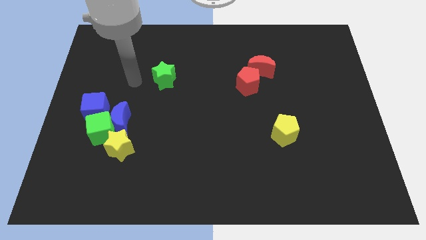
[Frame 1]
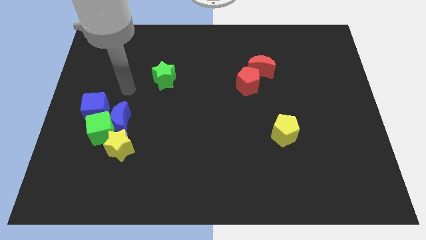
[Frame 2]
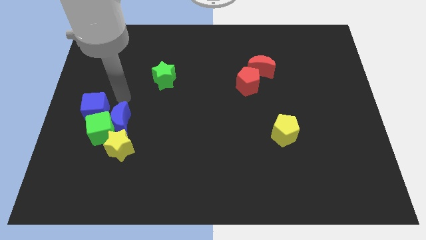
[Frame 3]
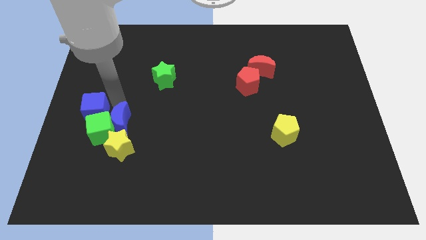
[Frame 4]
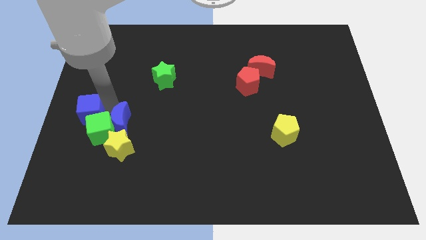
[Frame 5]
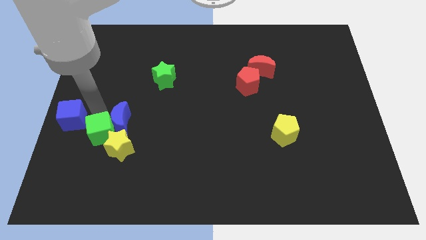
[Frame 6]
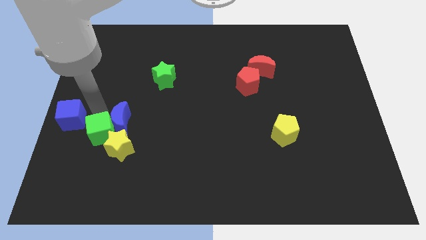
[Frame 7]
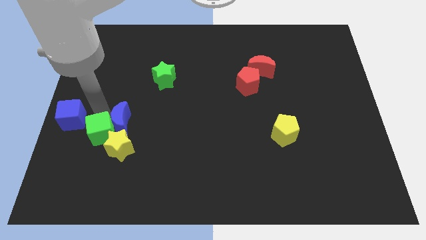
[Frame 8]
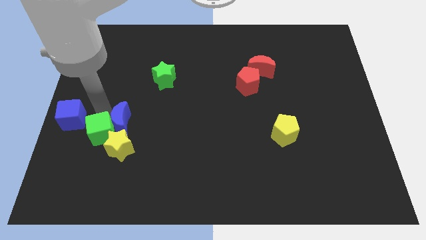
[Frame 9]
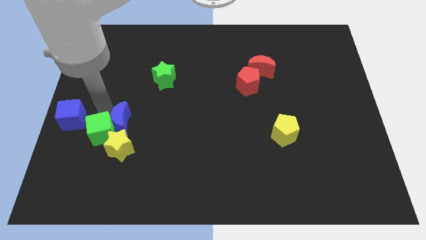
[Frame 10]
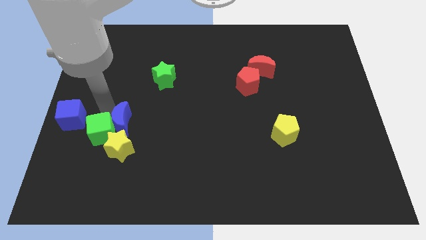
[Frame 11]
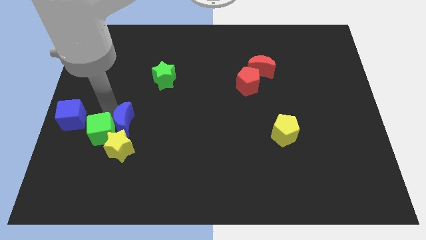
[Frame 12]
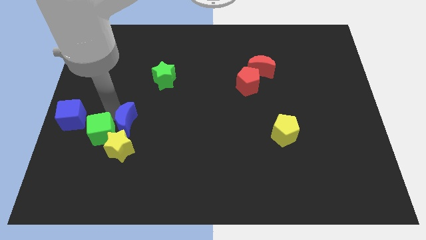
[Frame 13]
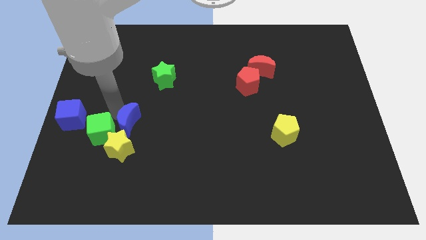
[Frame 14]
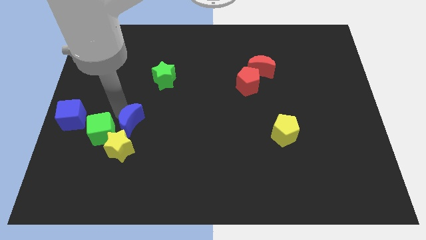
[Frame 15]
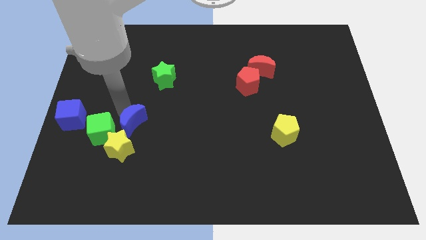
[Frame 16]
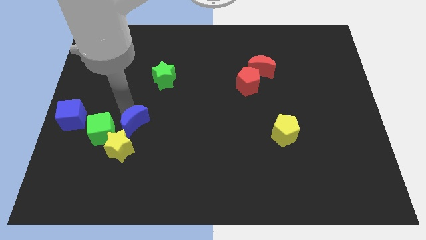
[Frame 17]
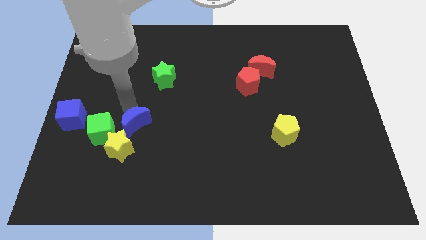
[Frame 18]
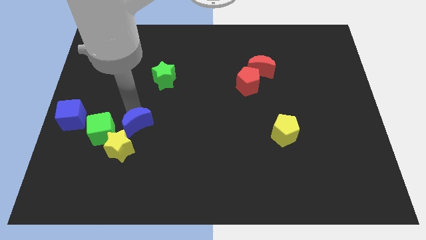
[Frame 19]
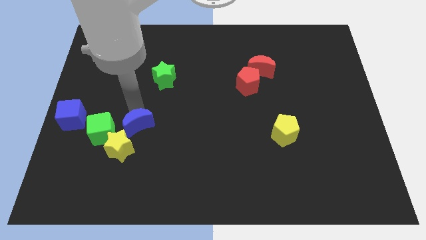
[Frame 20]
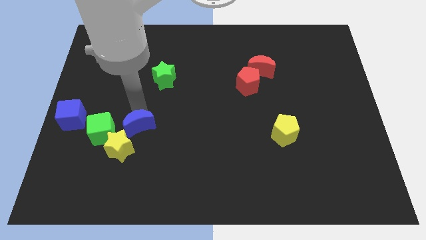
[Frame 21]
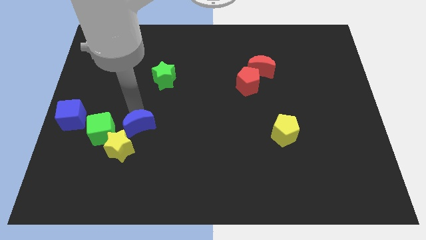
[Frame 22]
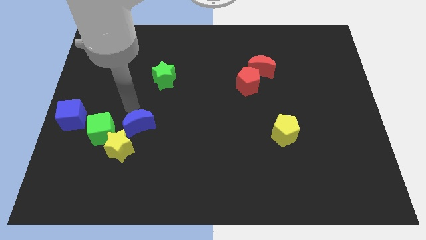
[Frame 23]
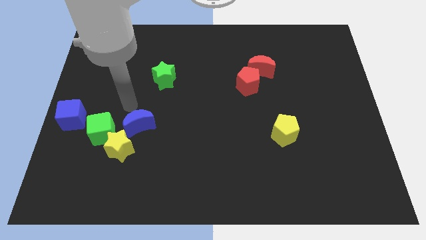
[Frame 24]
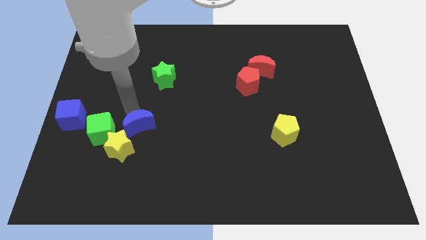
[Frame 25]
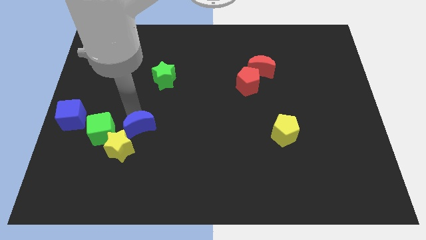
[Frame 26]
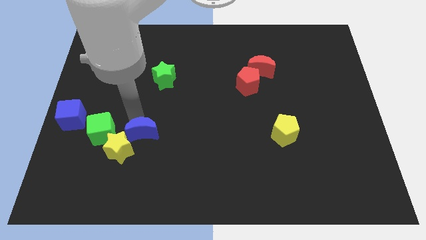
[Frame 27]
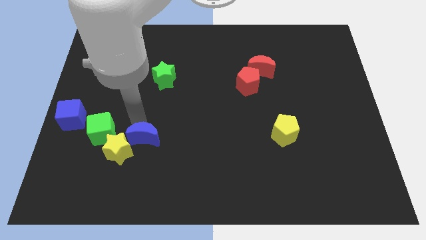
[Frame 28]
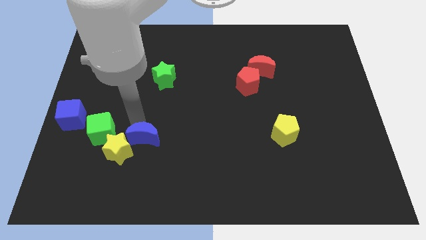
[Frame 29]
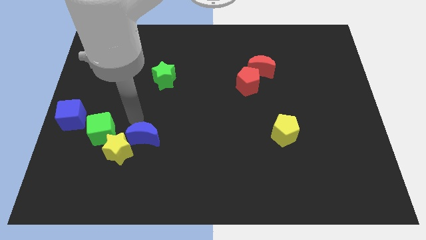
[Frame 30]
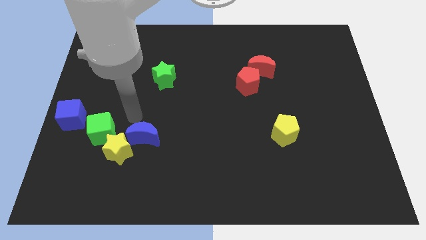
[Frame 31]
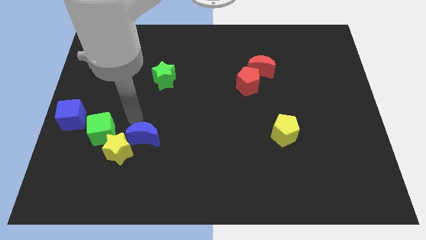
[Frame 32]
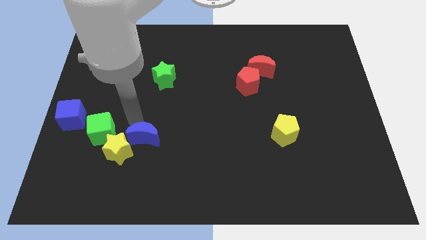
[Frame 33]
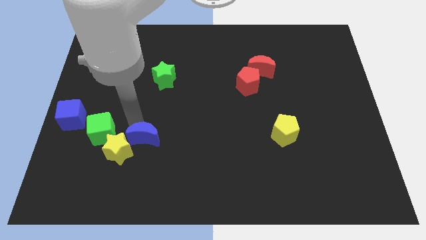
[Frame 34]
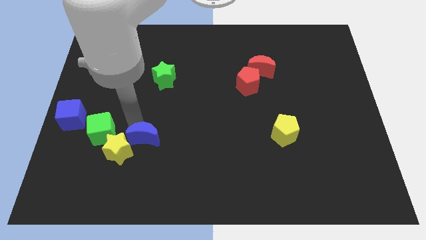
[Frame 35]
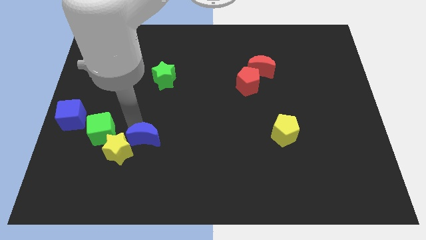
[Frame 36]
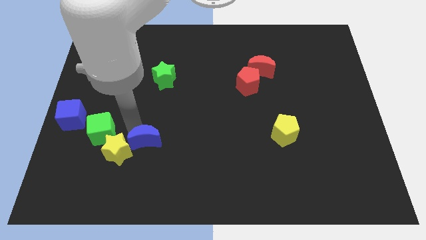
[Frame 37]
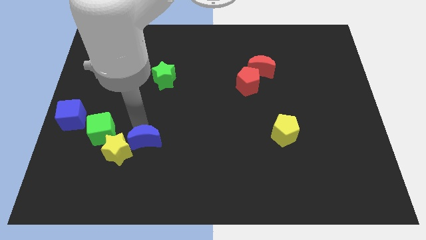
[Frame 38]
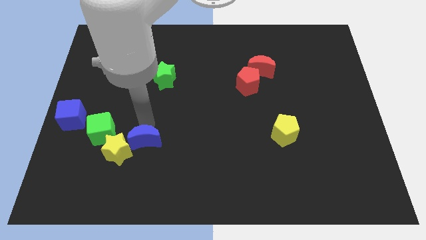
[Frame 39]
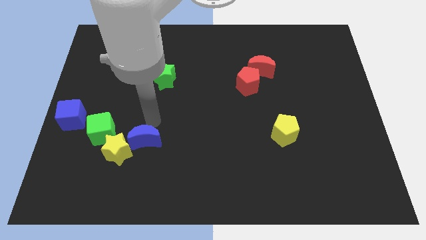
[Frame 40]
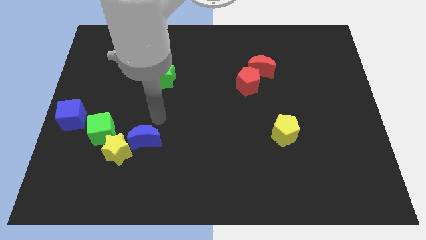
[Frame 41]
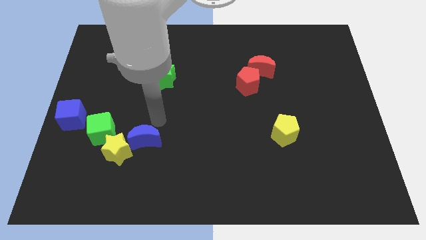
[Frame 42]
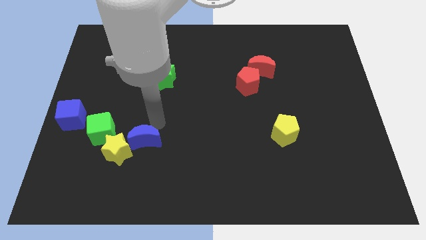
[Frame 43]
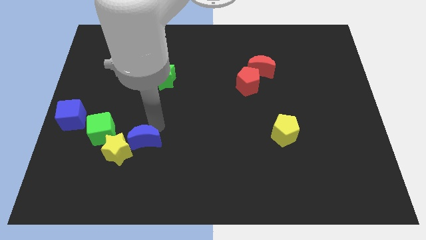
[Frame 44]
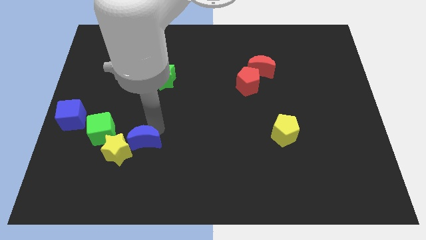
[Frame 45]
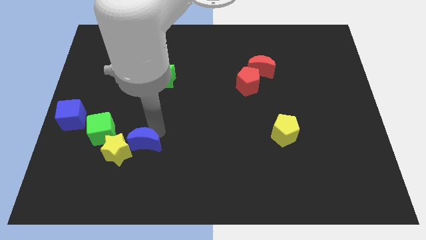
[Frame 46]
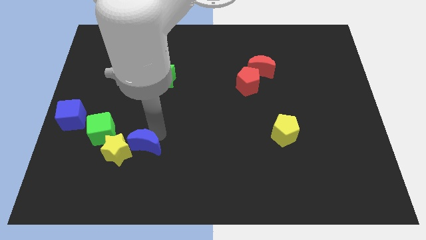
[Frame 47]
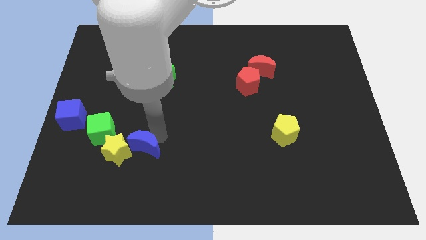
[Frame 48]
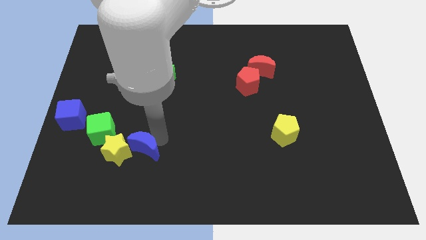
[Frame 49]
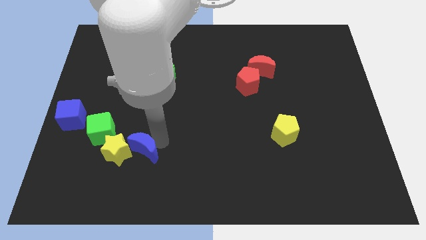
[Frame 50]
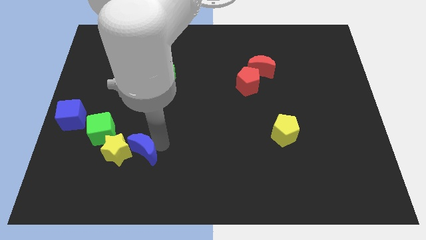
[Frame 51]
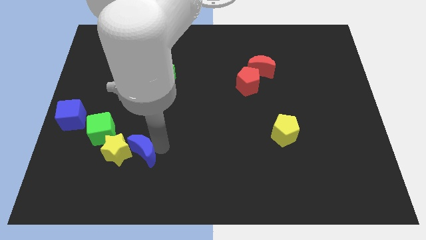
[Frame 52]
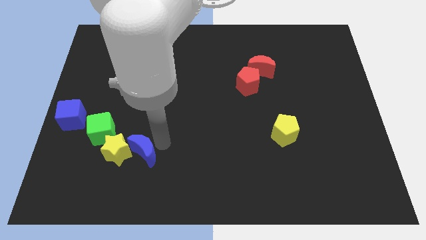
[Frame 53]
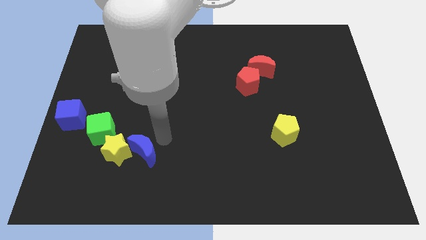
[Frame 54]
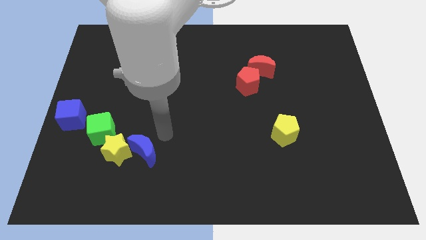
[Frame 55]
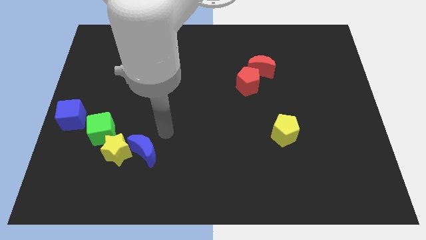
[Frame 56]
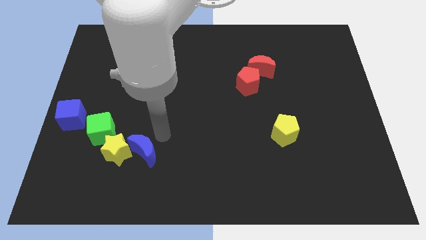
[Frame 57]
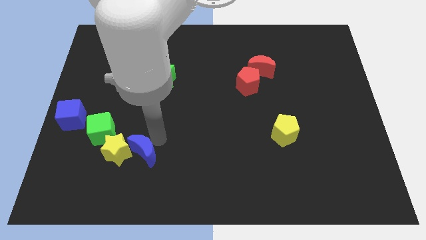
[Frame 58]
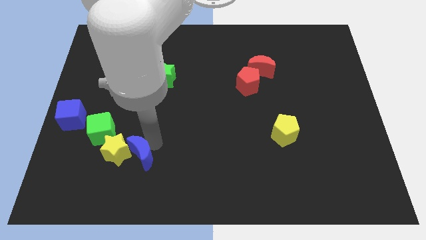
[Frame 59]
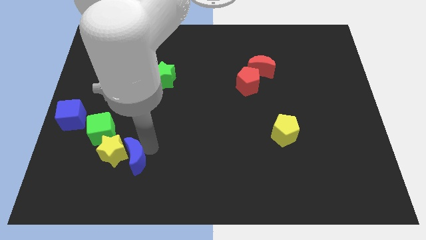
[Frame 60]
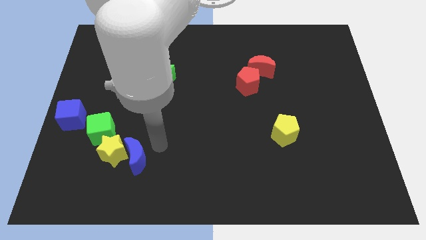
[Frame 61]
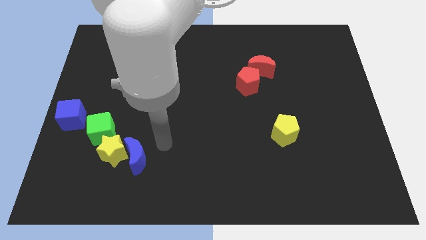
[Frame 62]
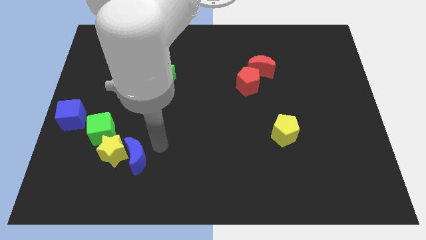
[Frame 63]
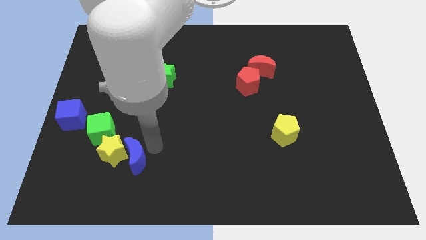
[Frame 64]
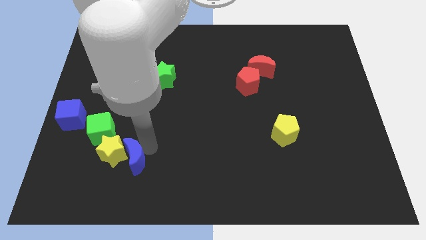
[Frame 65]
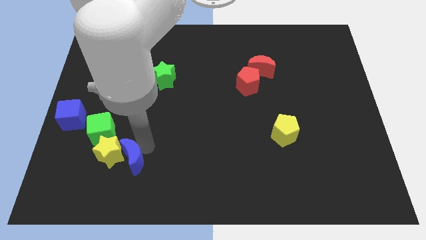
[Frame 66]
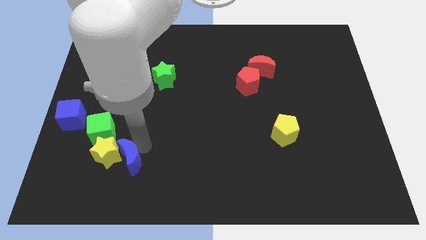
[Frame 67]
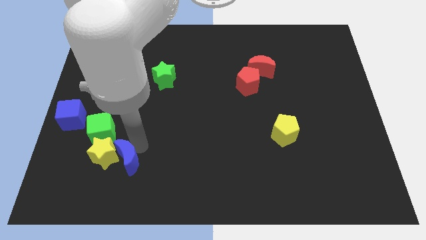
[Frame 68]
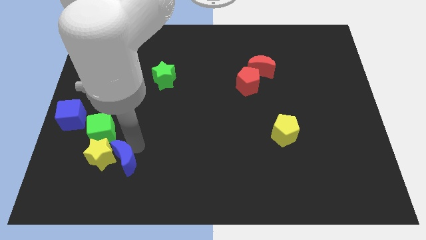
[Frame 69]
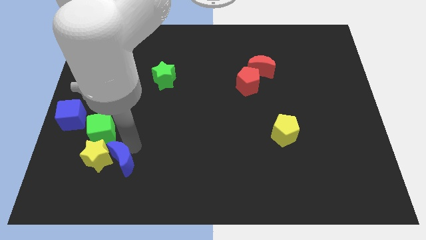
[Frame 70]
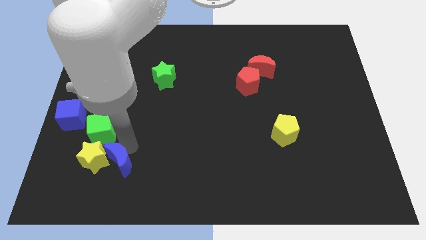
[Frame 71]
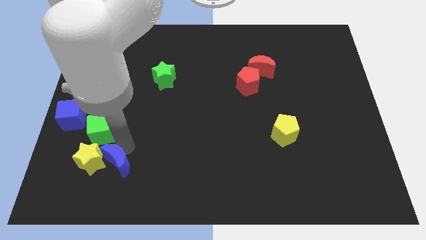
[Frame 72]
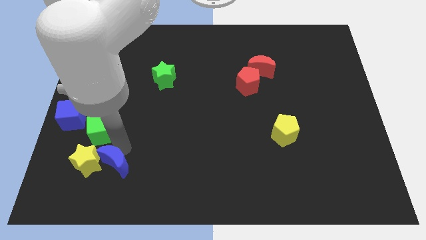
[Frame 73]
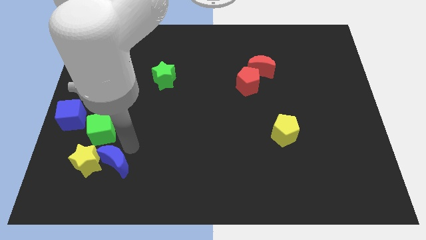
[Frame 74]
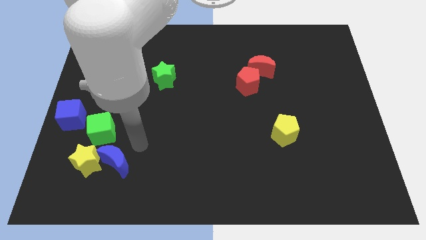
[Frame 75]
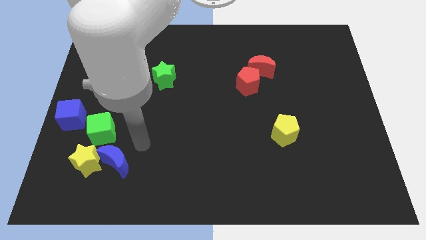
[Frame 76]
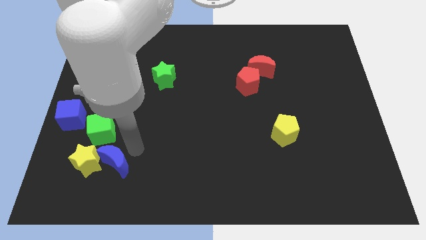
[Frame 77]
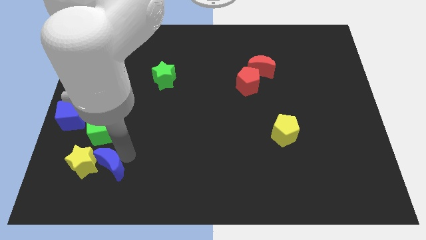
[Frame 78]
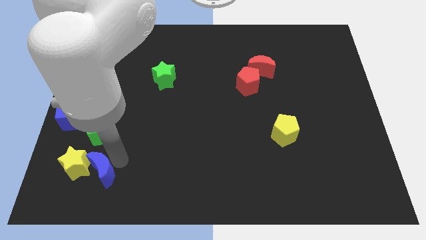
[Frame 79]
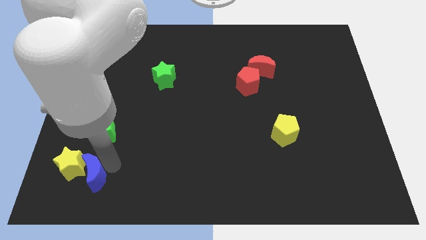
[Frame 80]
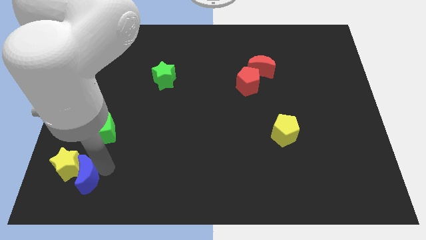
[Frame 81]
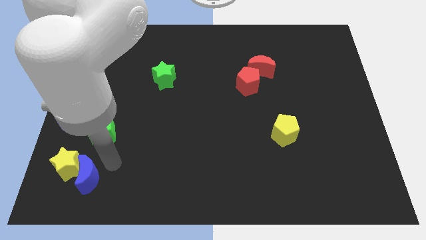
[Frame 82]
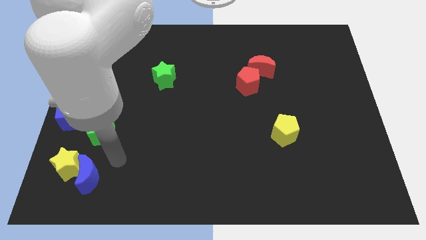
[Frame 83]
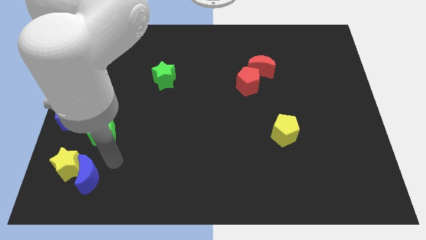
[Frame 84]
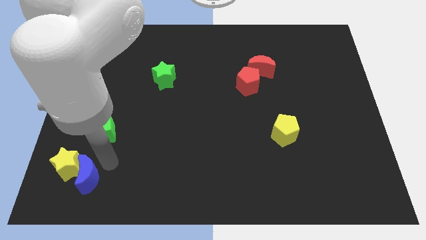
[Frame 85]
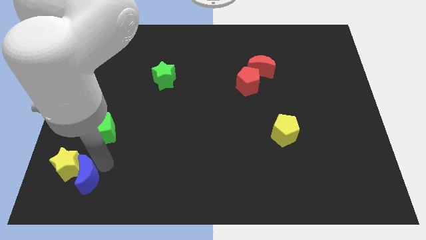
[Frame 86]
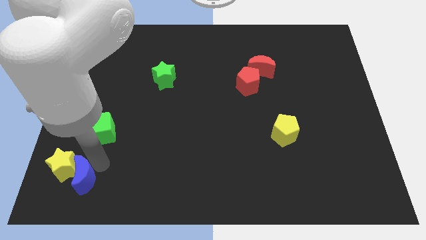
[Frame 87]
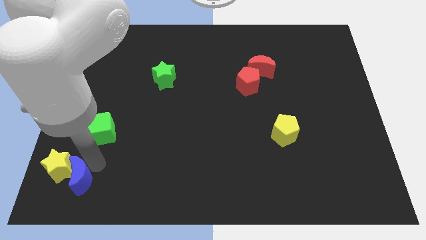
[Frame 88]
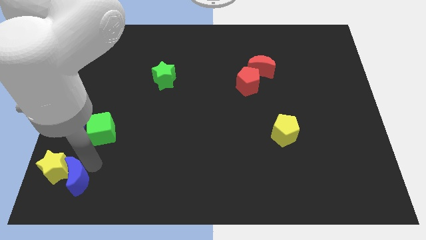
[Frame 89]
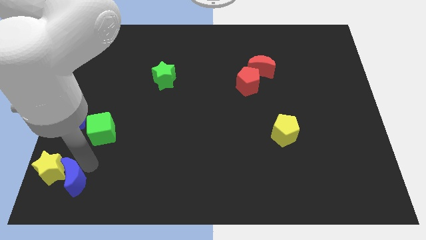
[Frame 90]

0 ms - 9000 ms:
move the blue moon to the bottom left of the board
